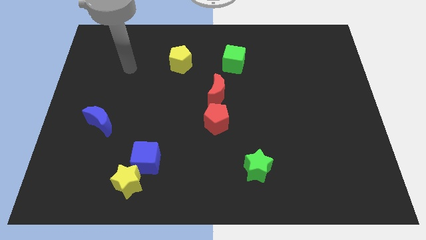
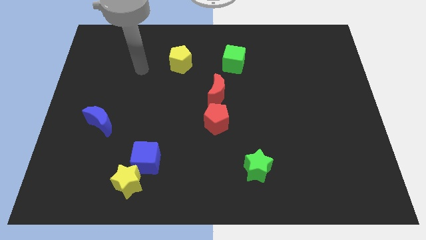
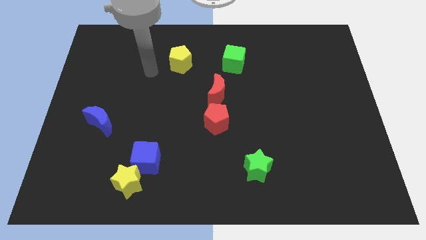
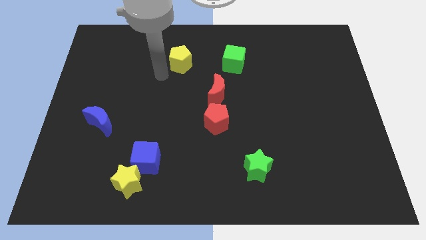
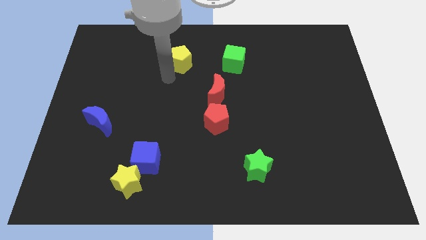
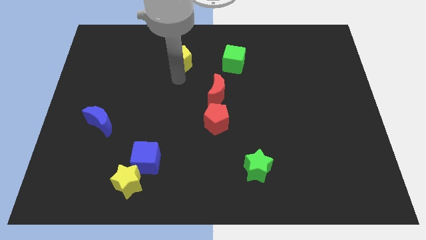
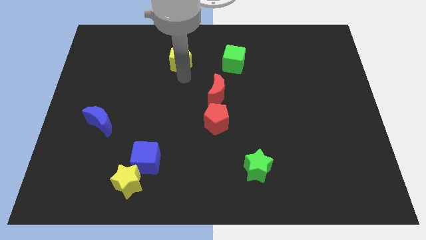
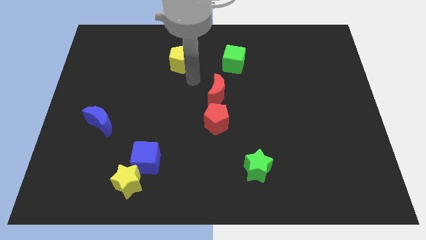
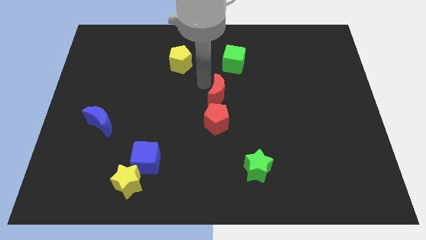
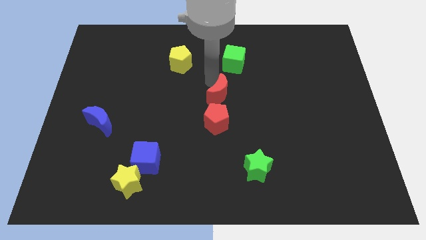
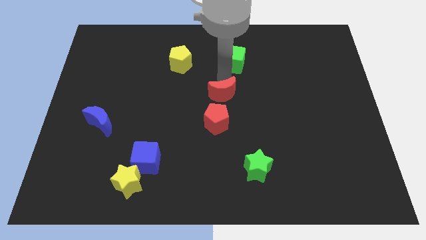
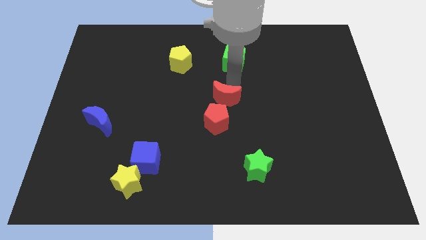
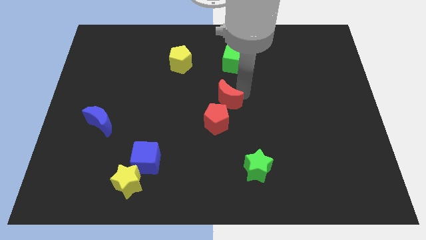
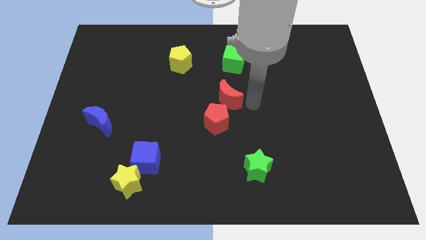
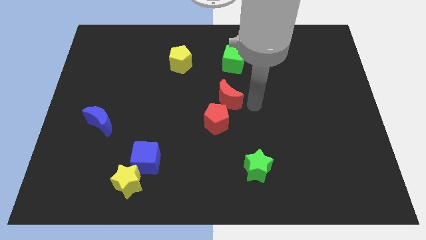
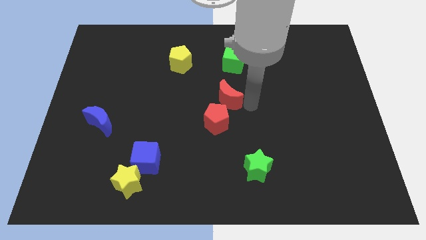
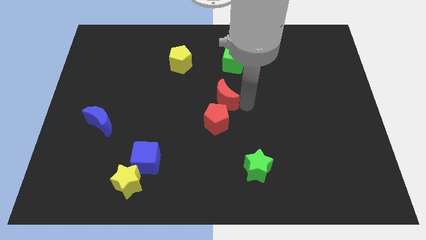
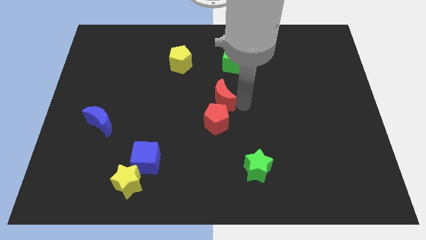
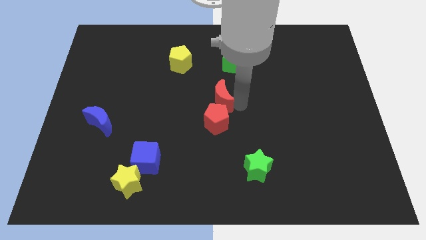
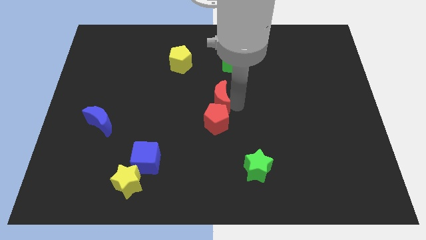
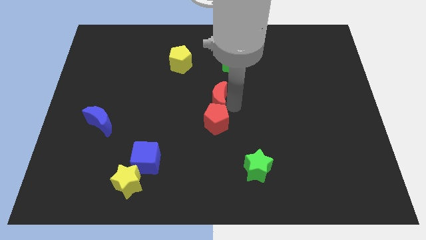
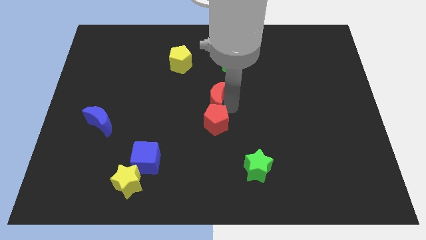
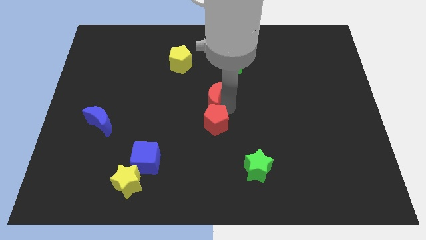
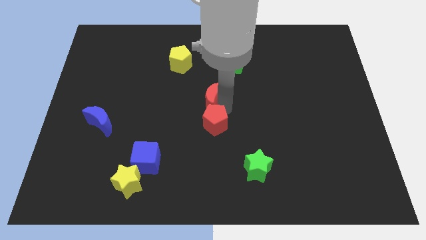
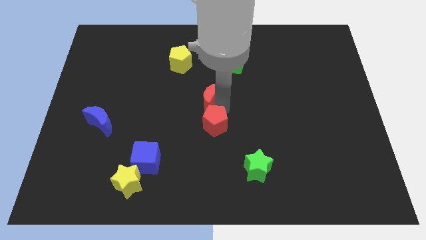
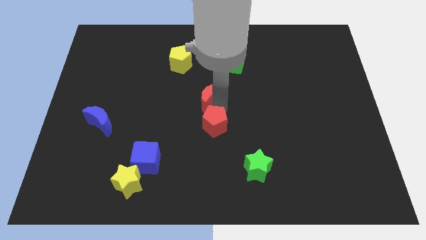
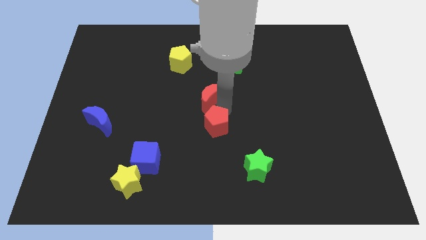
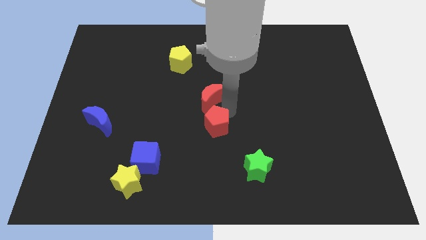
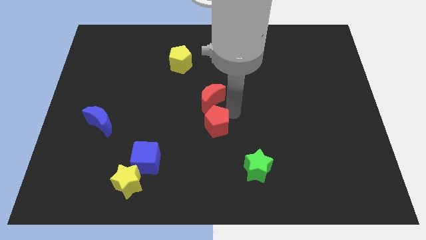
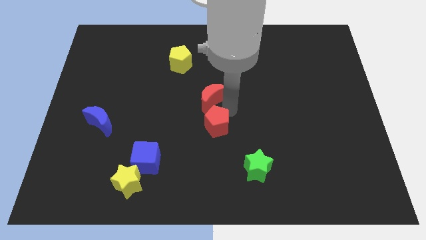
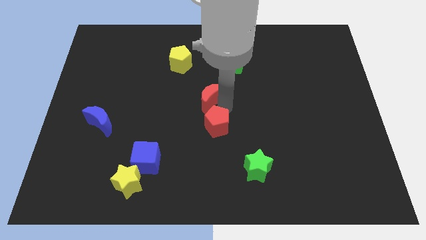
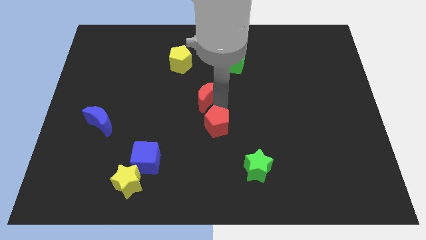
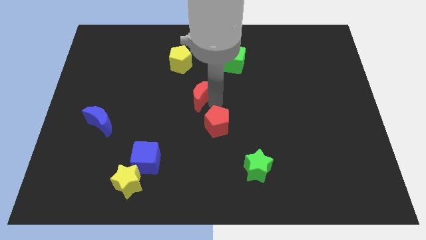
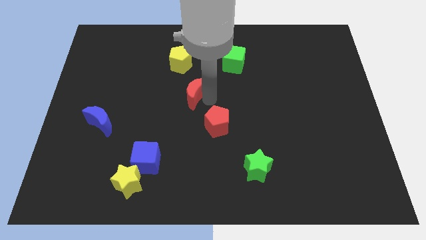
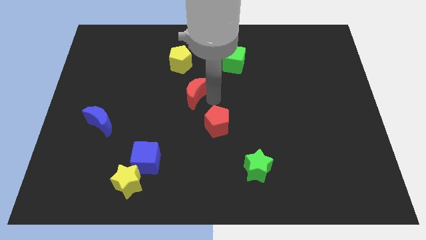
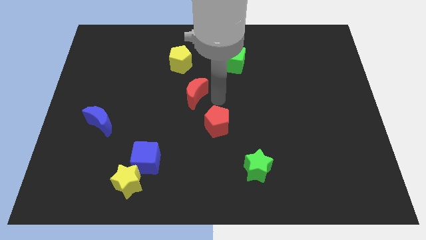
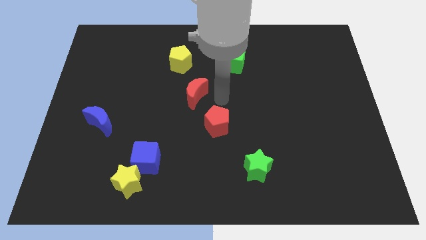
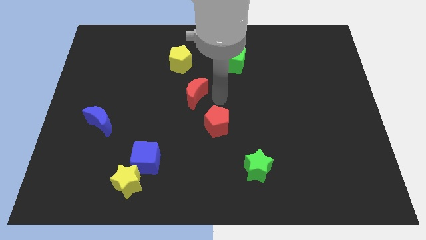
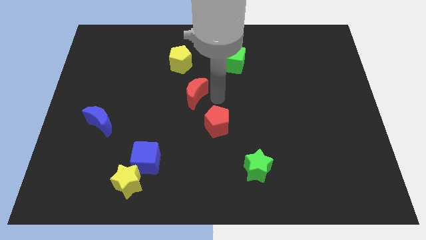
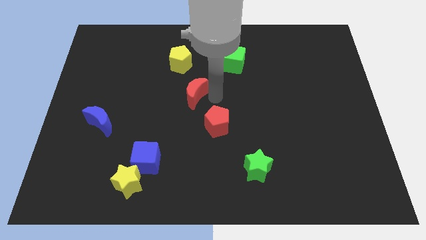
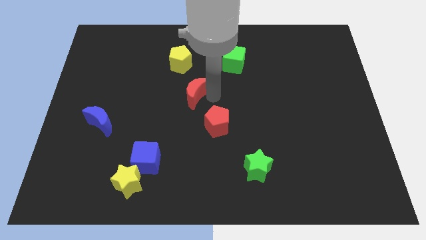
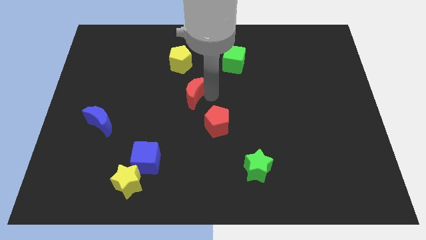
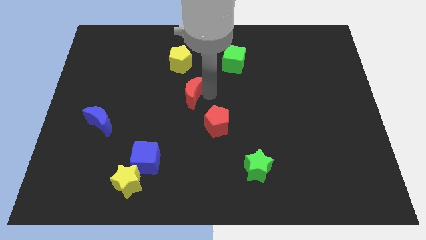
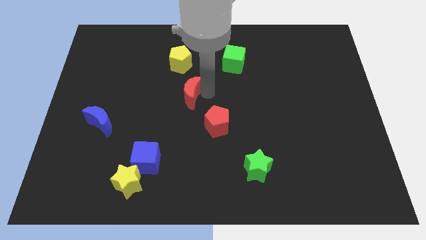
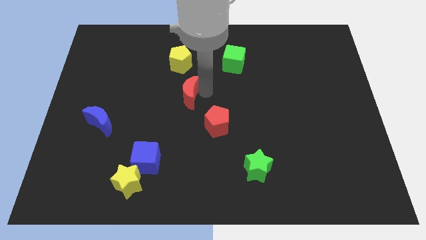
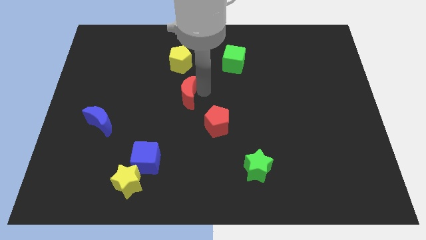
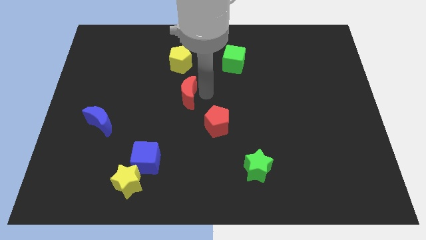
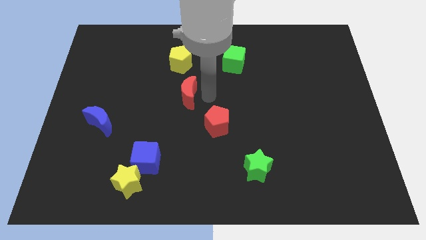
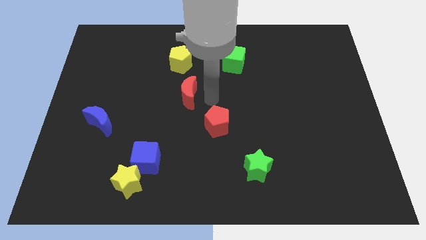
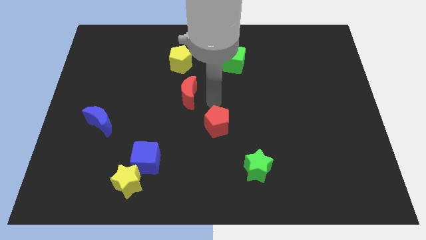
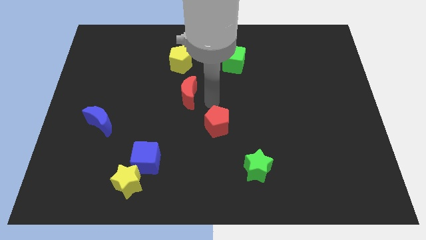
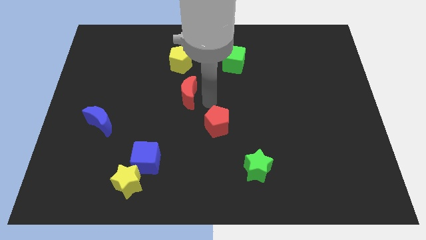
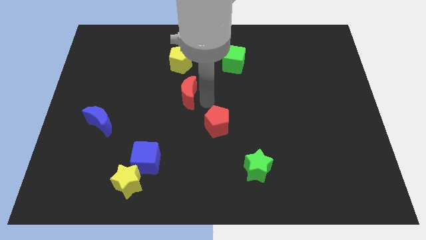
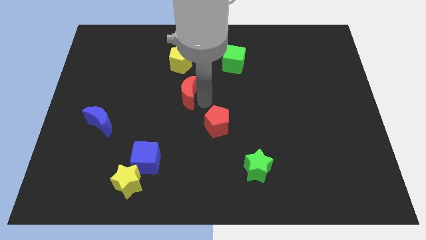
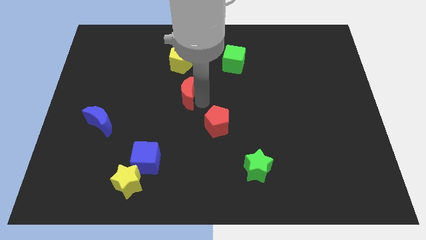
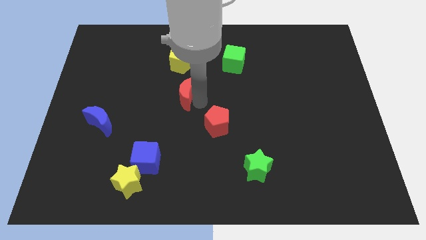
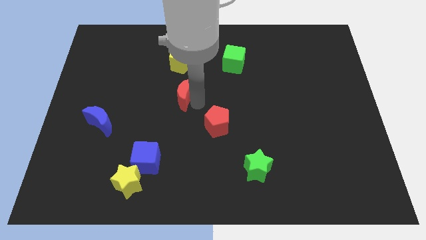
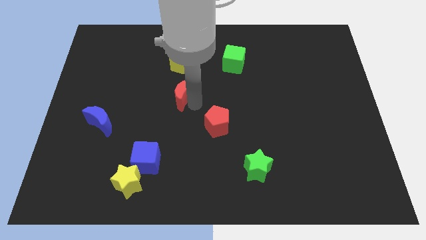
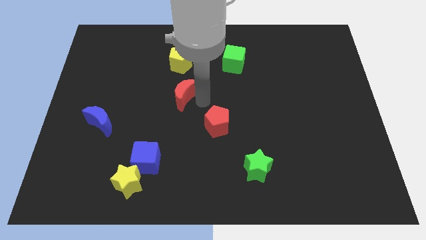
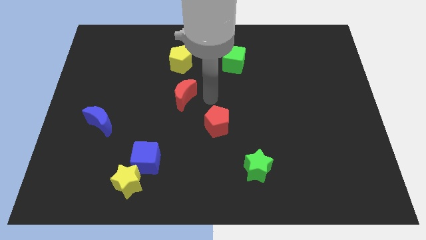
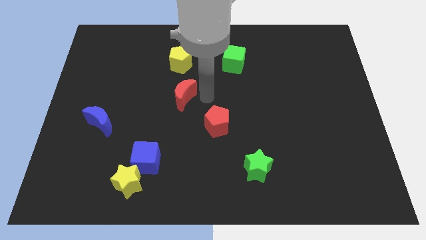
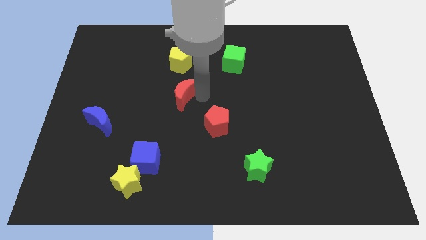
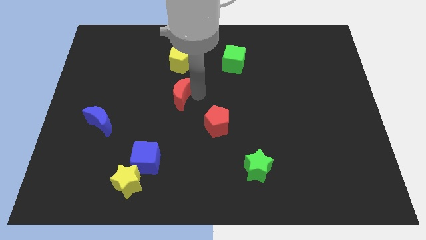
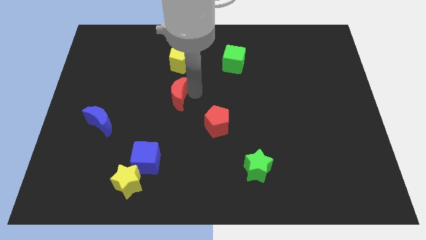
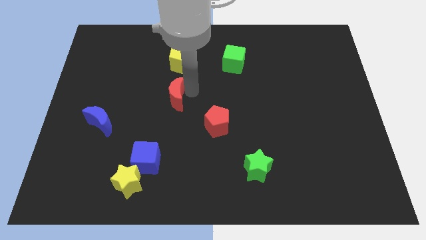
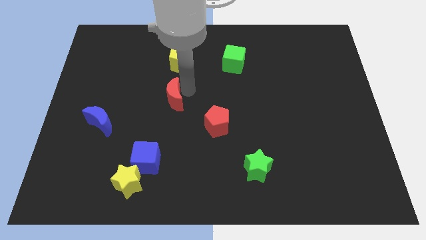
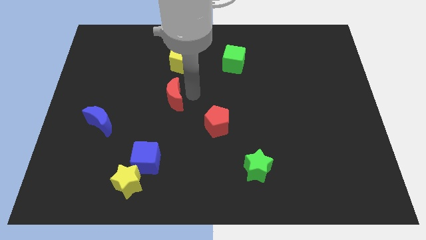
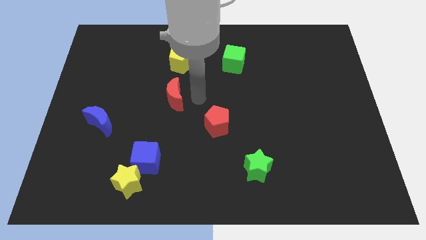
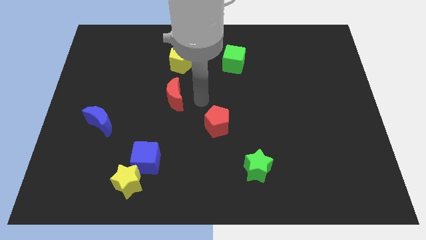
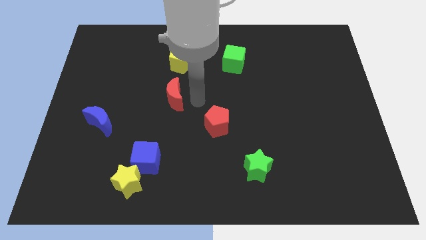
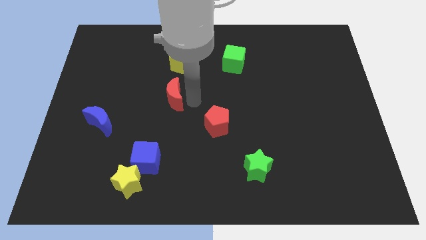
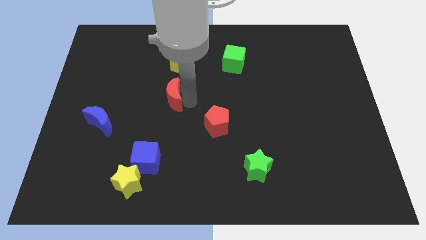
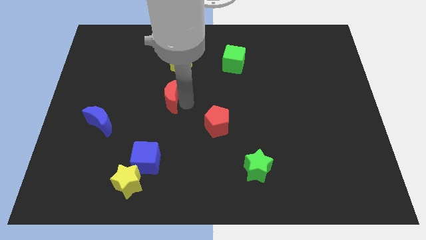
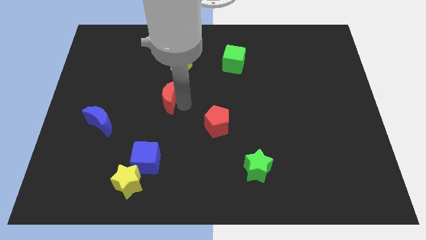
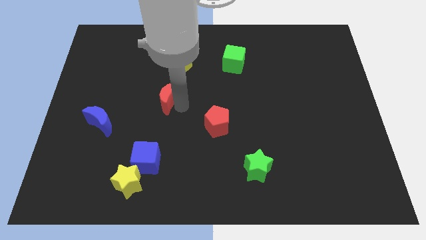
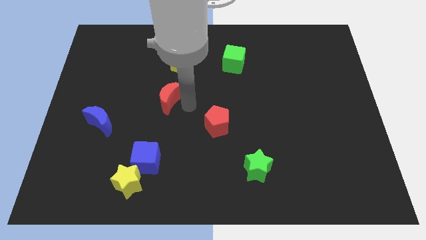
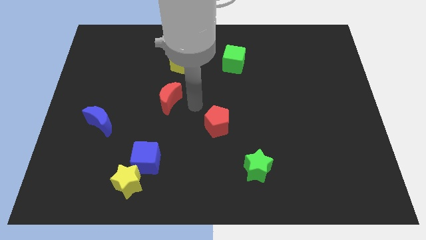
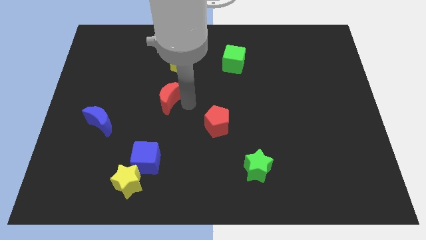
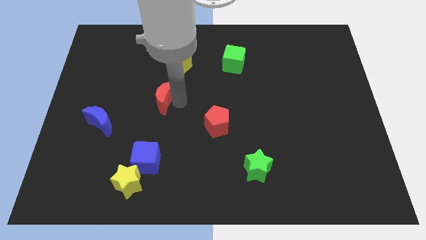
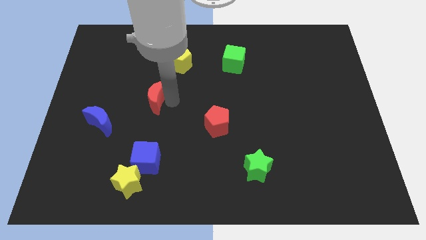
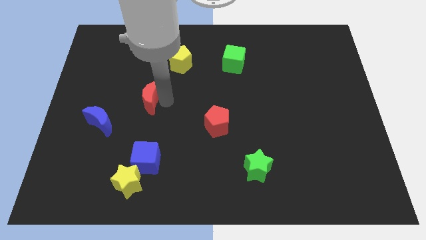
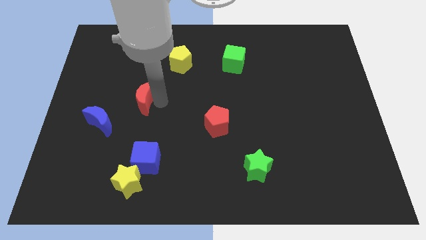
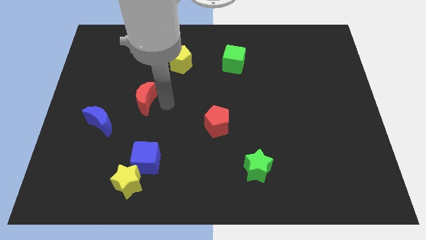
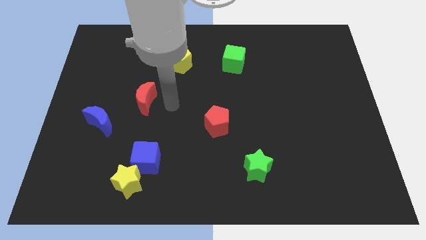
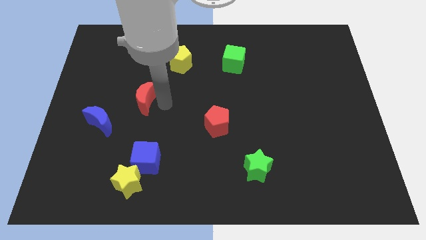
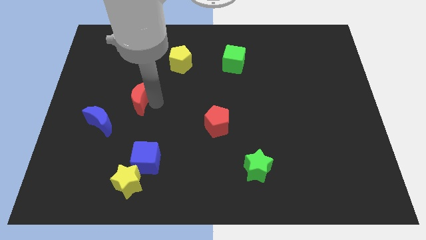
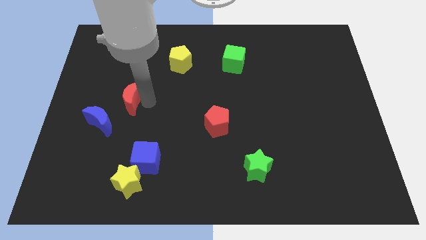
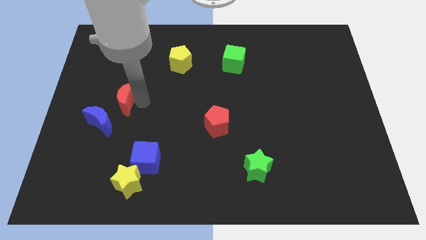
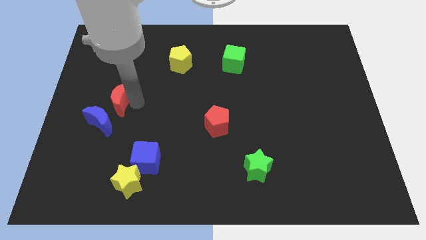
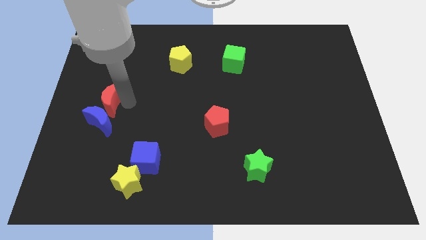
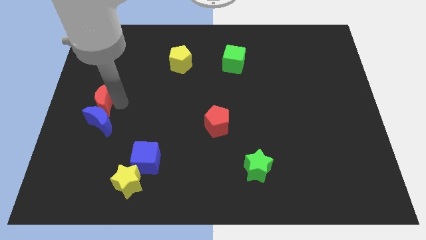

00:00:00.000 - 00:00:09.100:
slide the red moon to the left side of the board
